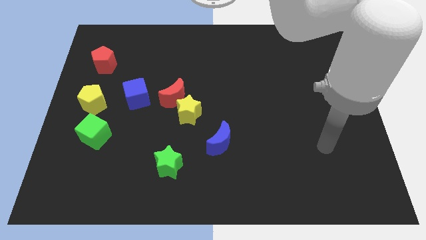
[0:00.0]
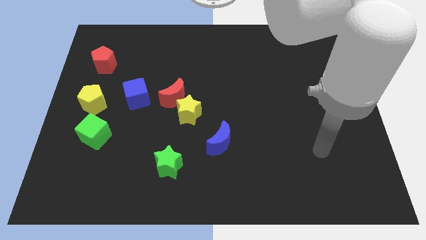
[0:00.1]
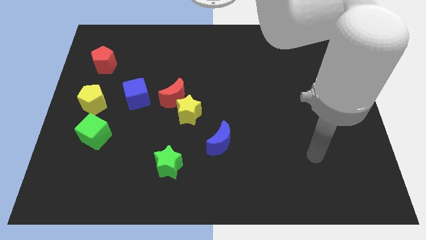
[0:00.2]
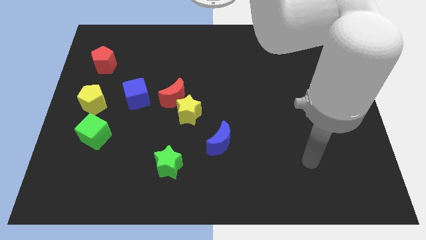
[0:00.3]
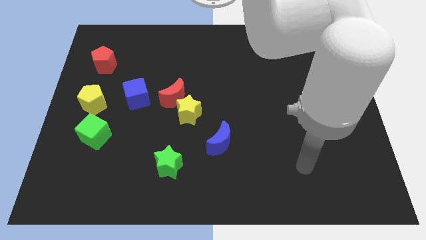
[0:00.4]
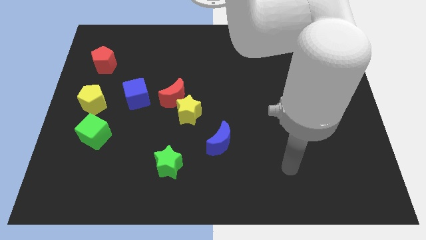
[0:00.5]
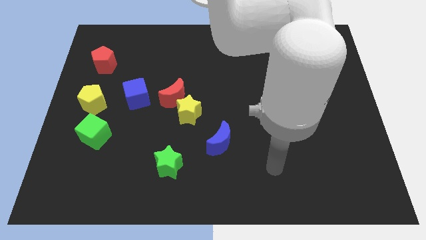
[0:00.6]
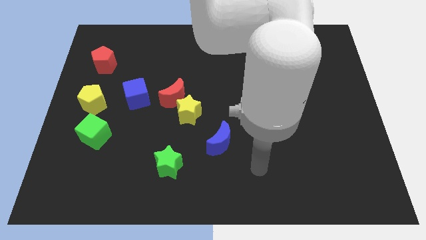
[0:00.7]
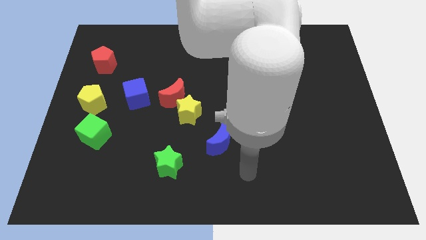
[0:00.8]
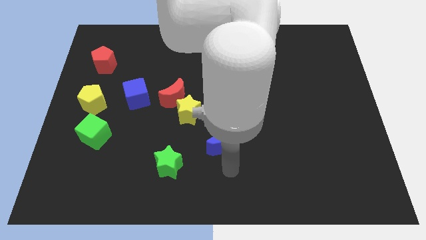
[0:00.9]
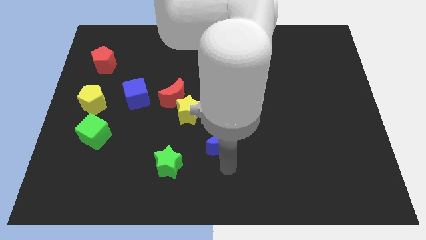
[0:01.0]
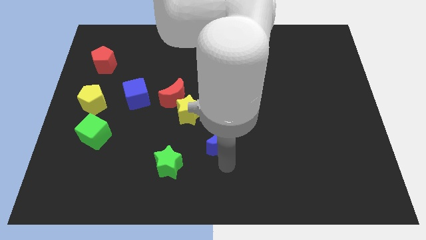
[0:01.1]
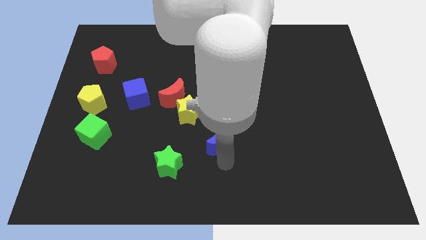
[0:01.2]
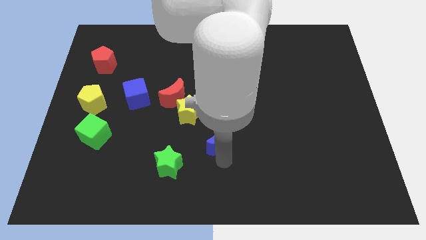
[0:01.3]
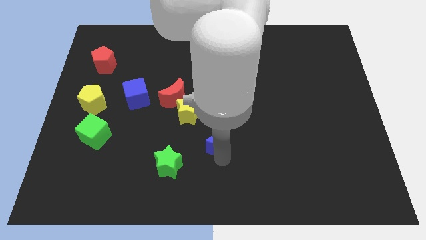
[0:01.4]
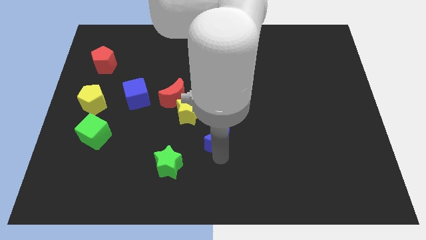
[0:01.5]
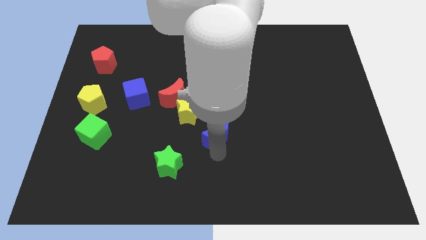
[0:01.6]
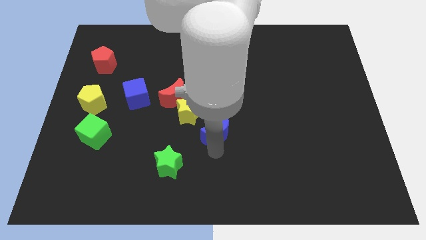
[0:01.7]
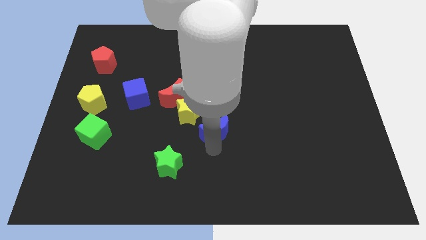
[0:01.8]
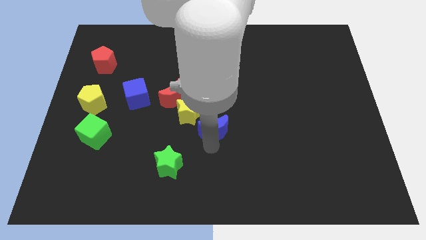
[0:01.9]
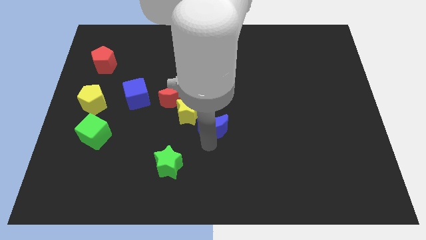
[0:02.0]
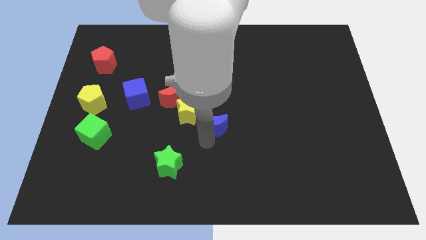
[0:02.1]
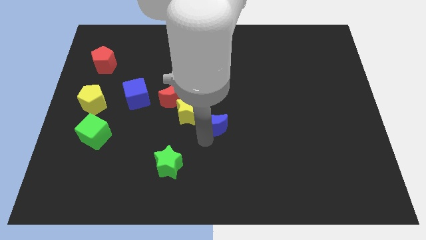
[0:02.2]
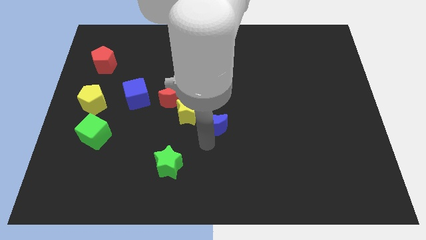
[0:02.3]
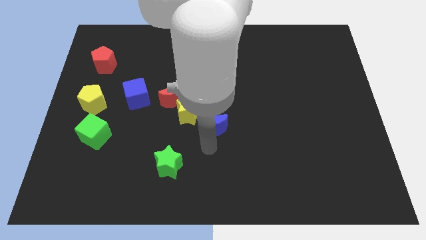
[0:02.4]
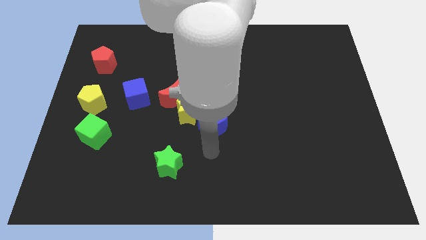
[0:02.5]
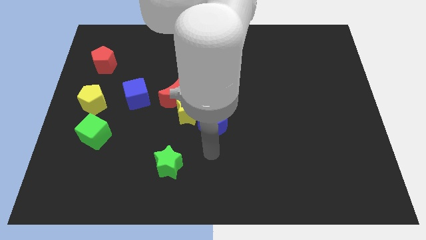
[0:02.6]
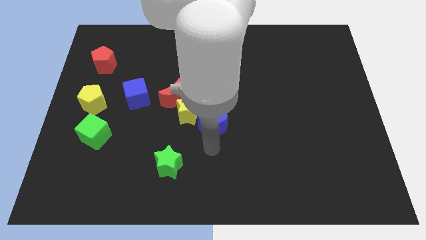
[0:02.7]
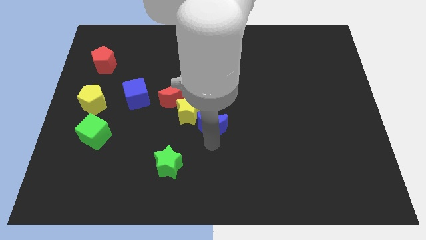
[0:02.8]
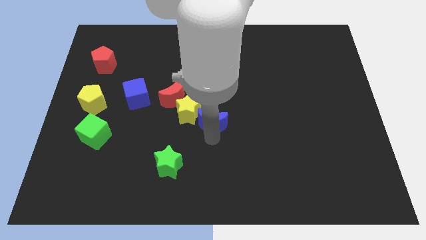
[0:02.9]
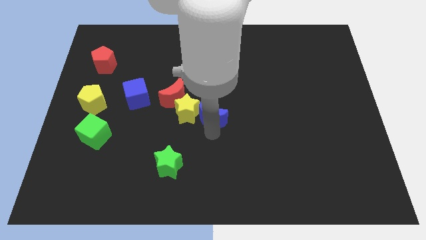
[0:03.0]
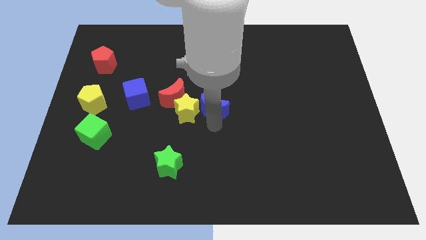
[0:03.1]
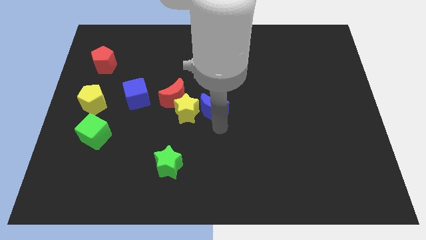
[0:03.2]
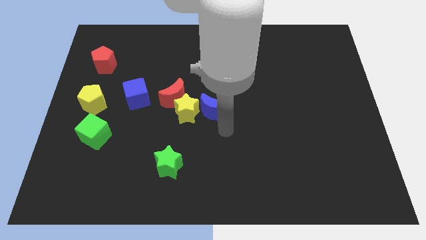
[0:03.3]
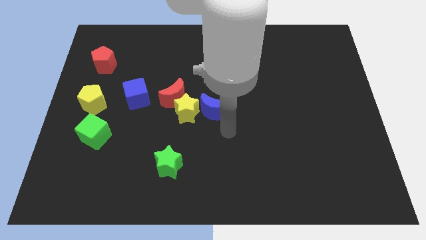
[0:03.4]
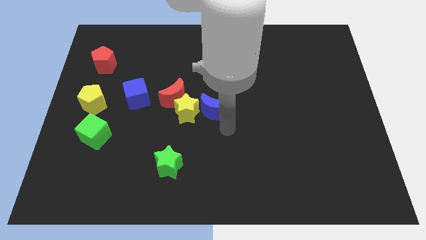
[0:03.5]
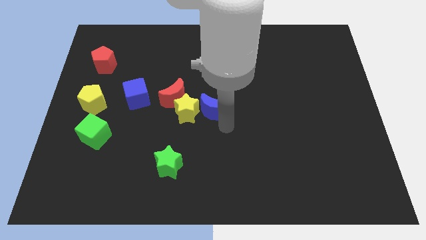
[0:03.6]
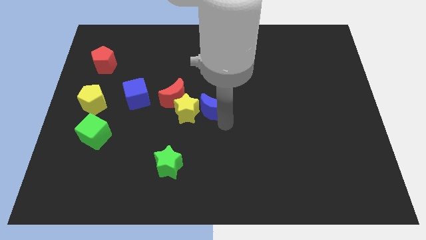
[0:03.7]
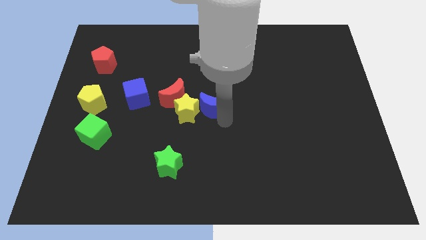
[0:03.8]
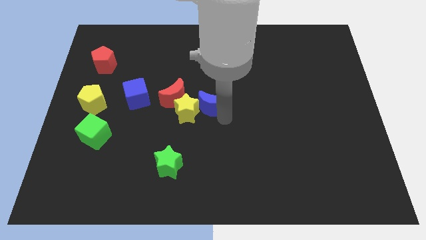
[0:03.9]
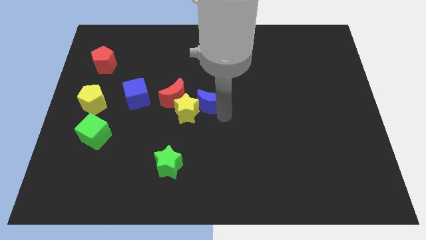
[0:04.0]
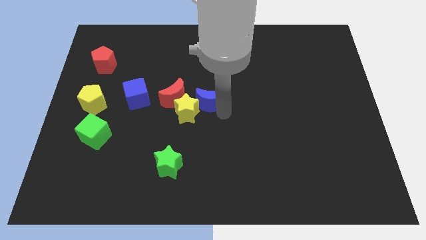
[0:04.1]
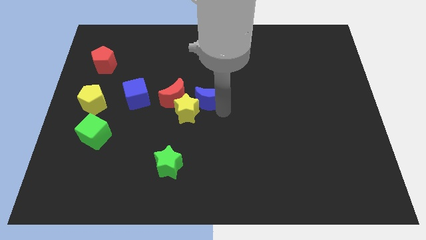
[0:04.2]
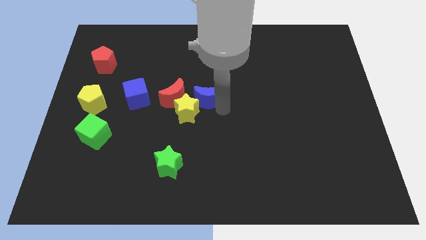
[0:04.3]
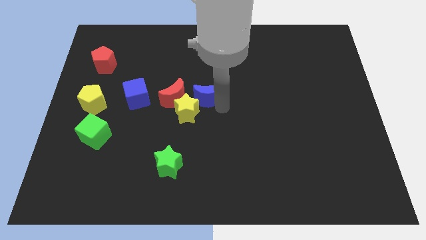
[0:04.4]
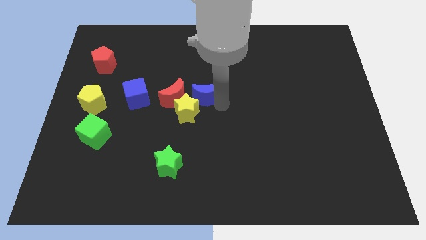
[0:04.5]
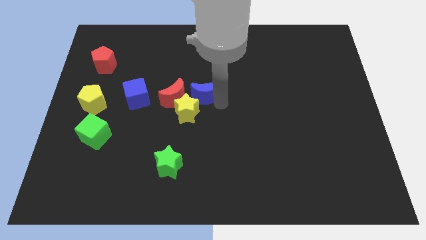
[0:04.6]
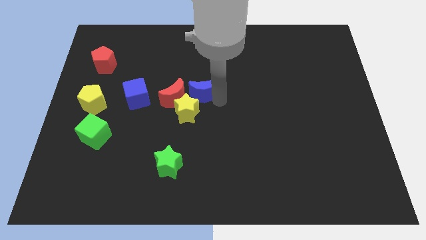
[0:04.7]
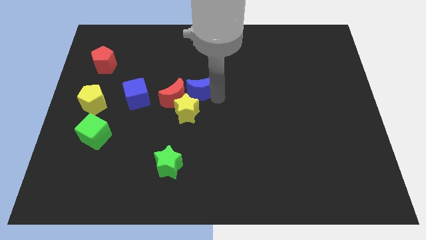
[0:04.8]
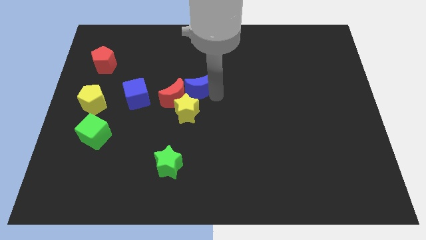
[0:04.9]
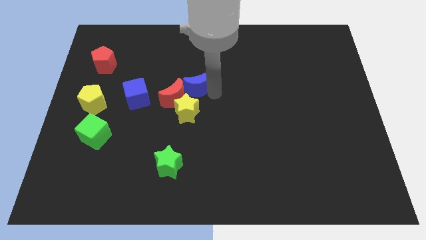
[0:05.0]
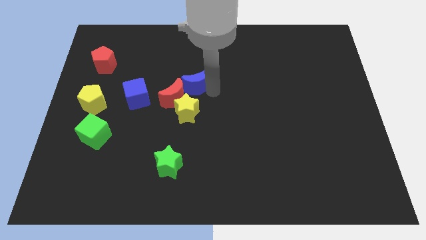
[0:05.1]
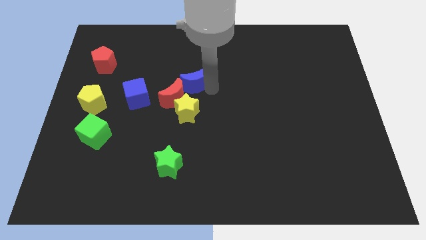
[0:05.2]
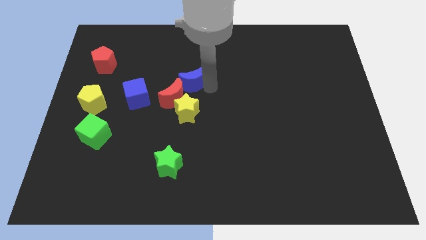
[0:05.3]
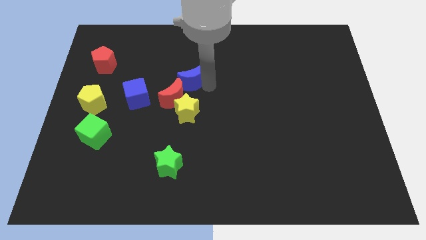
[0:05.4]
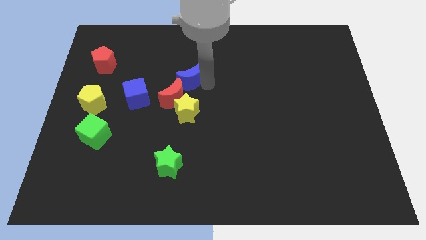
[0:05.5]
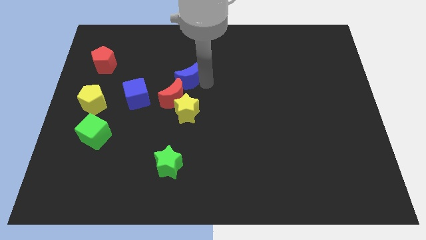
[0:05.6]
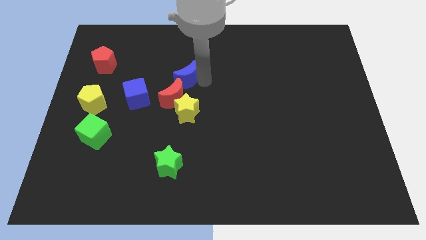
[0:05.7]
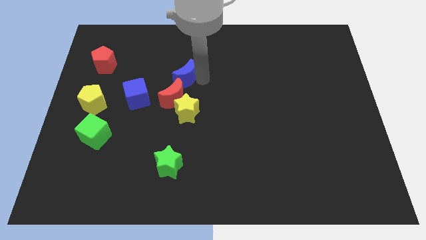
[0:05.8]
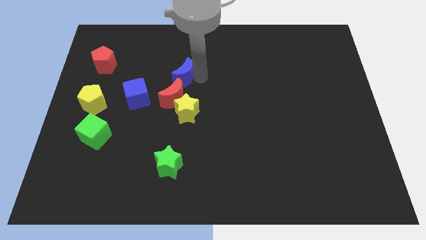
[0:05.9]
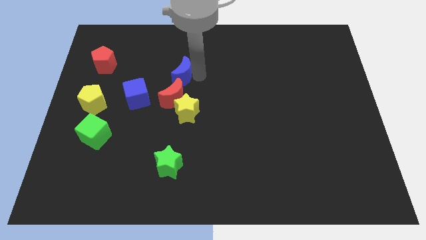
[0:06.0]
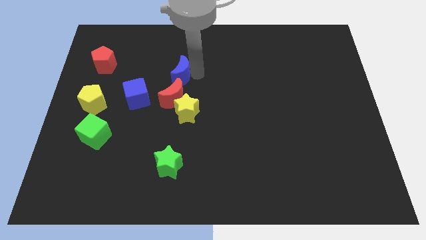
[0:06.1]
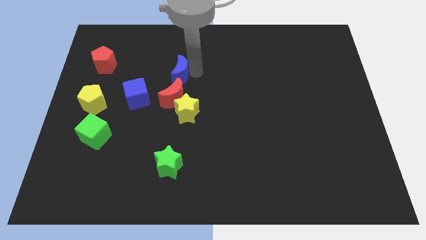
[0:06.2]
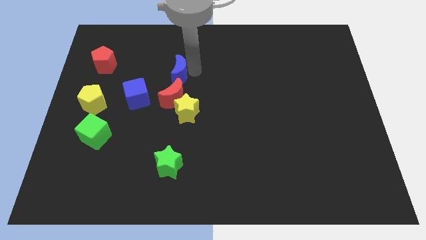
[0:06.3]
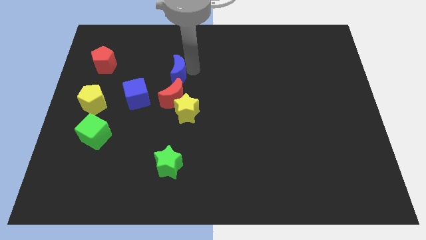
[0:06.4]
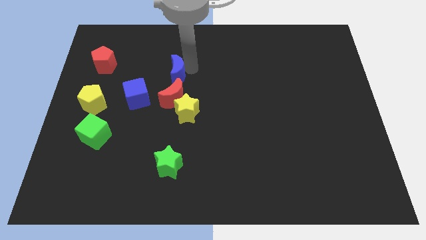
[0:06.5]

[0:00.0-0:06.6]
slide the blue moon up and then to the left

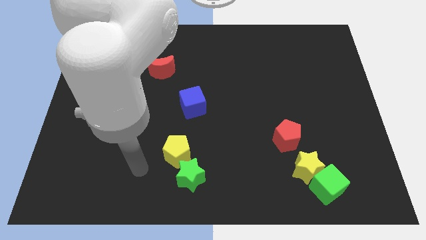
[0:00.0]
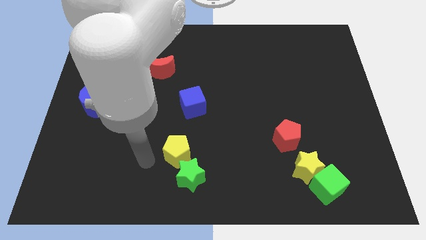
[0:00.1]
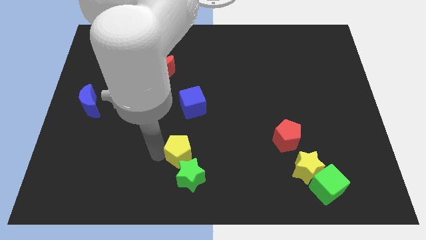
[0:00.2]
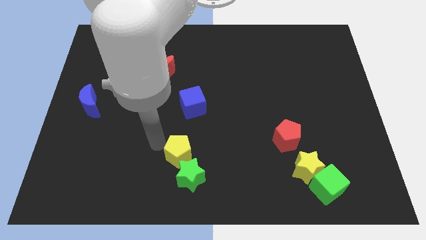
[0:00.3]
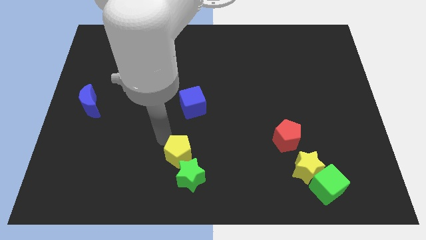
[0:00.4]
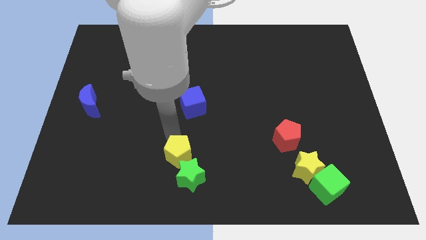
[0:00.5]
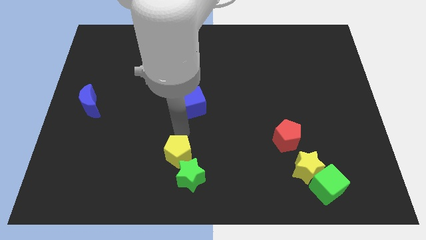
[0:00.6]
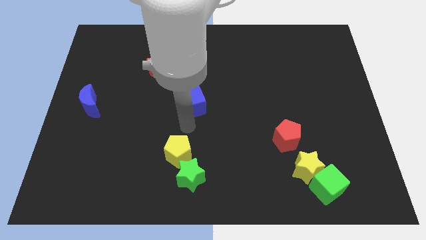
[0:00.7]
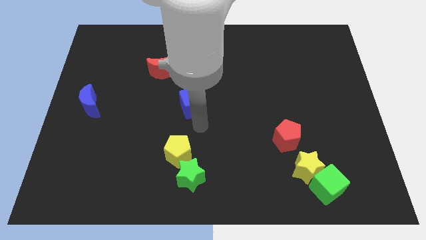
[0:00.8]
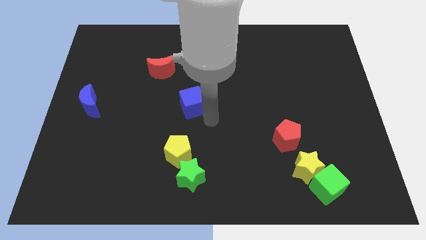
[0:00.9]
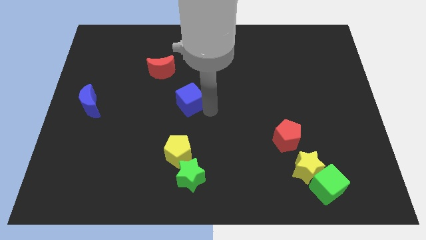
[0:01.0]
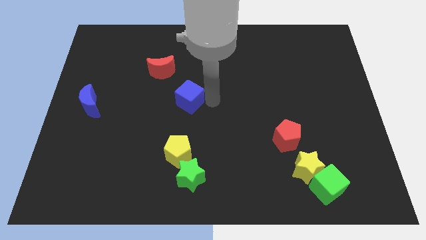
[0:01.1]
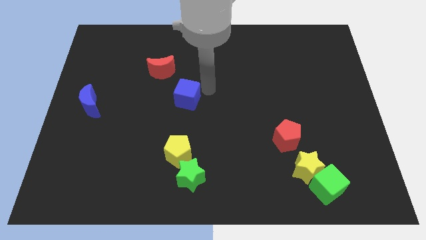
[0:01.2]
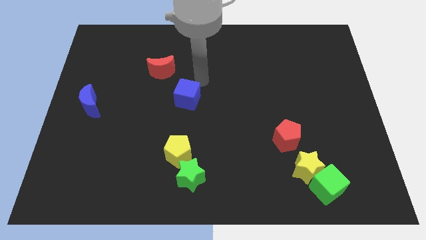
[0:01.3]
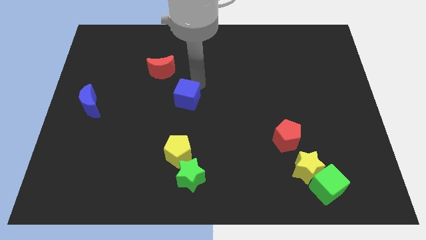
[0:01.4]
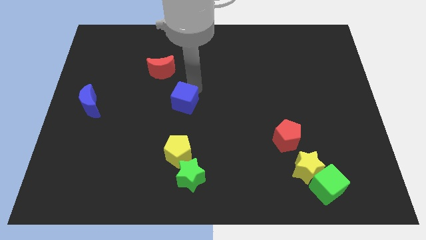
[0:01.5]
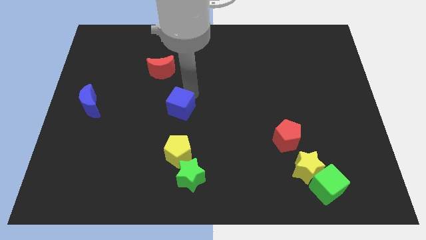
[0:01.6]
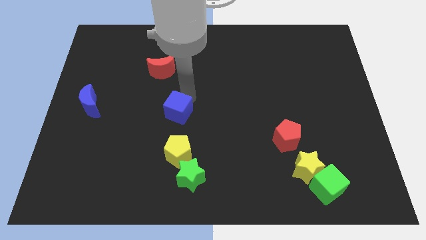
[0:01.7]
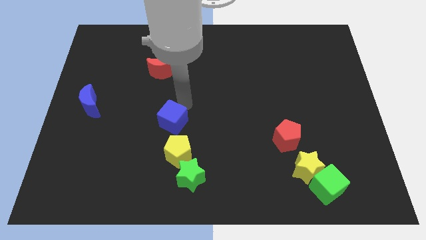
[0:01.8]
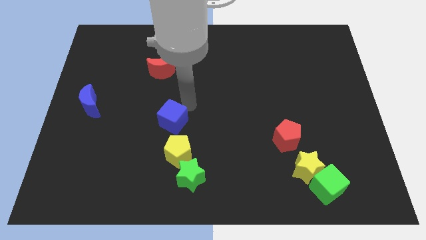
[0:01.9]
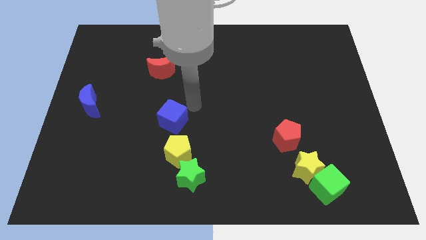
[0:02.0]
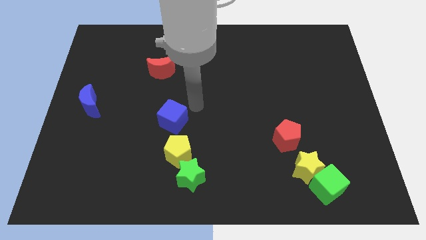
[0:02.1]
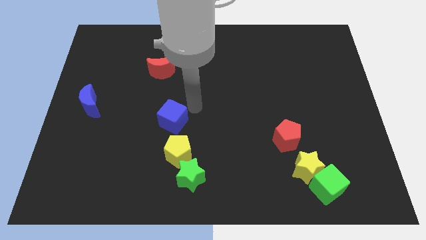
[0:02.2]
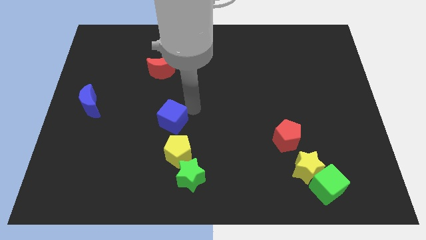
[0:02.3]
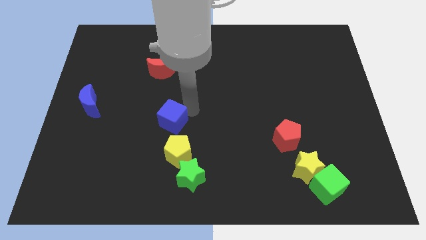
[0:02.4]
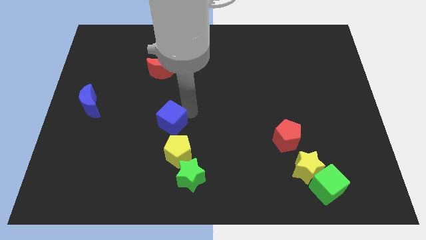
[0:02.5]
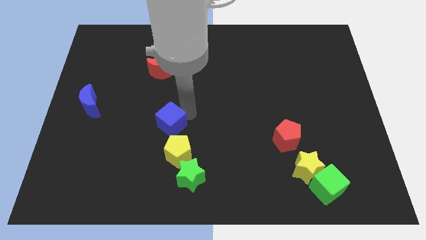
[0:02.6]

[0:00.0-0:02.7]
slightly push the blue cube downwards and then left
